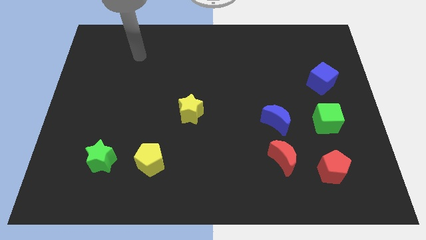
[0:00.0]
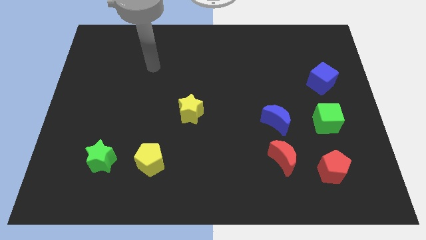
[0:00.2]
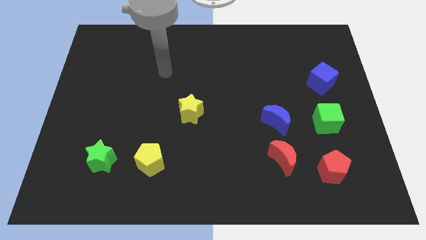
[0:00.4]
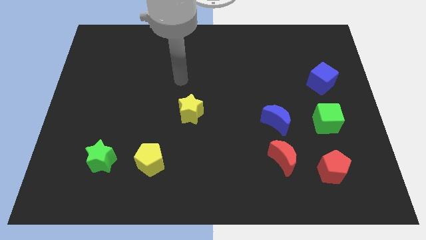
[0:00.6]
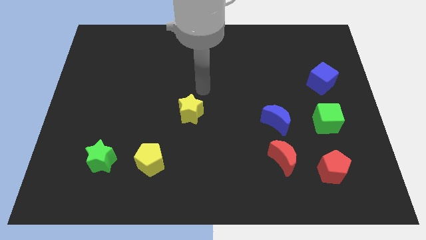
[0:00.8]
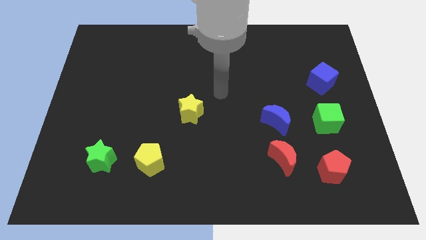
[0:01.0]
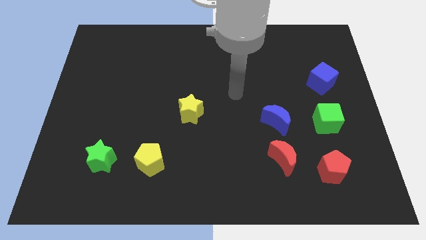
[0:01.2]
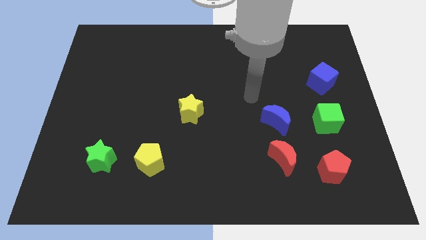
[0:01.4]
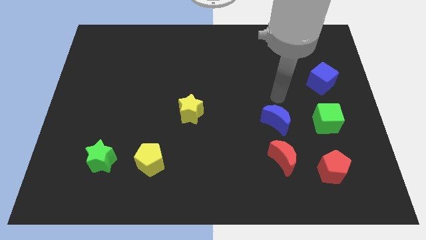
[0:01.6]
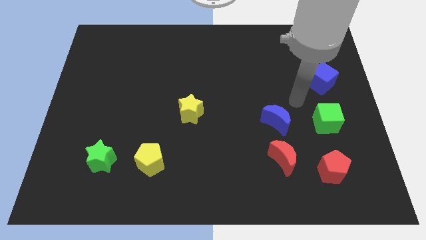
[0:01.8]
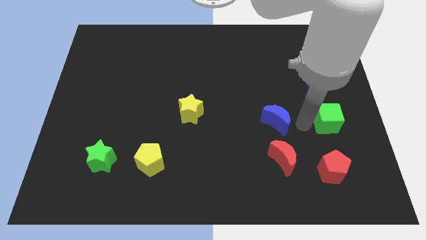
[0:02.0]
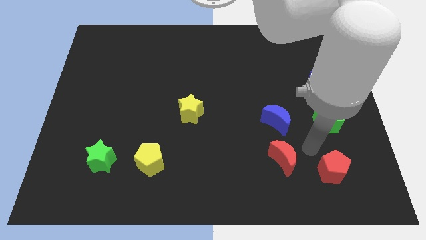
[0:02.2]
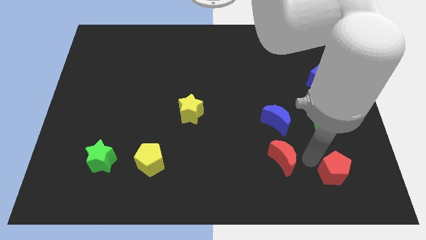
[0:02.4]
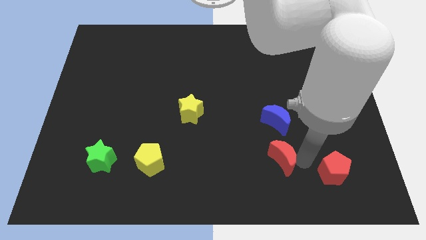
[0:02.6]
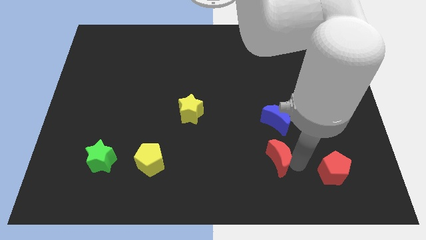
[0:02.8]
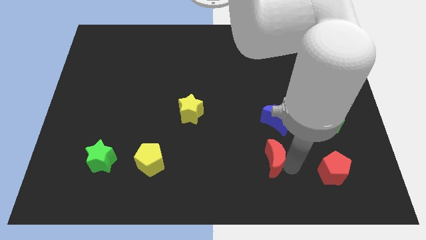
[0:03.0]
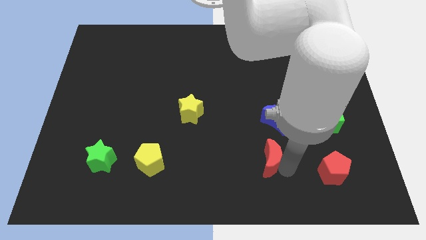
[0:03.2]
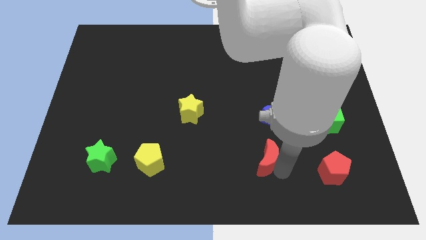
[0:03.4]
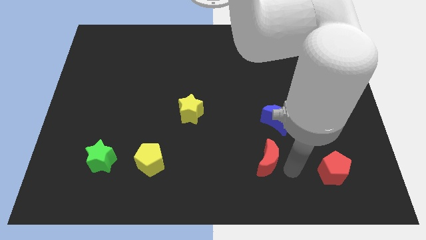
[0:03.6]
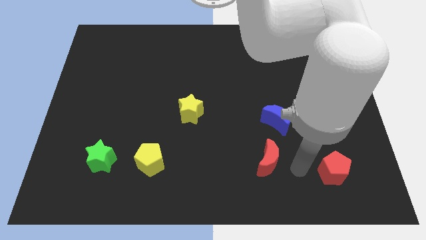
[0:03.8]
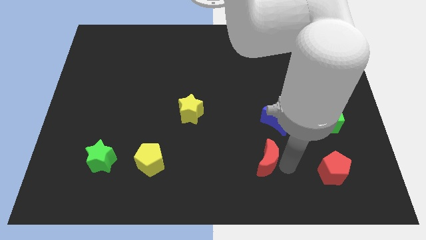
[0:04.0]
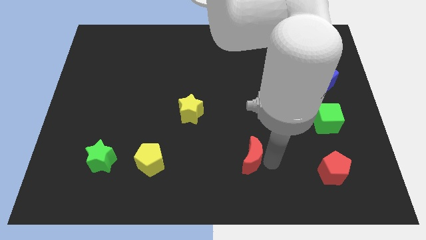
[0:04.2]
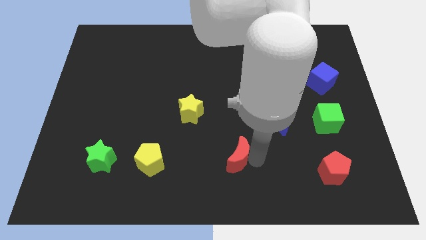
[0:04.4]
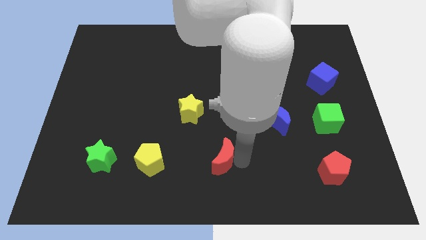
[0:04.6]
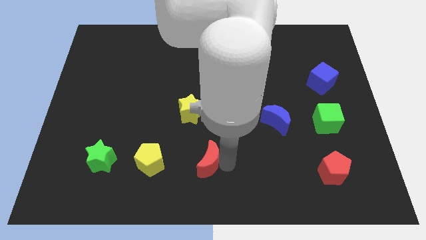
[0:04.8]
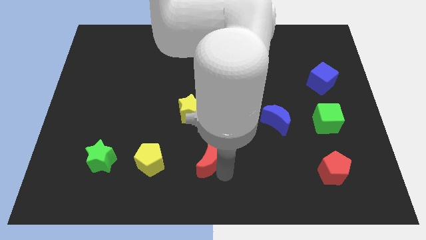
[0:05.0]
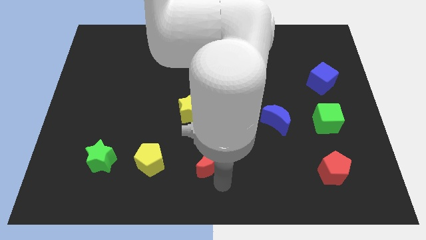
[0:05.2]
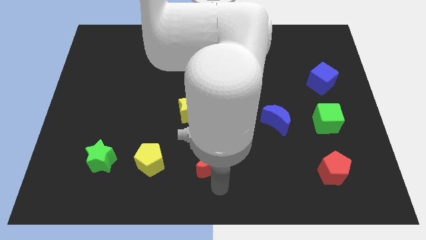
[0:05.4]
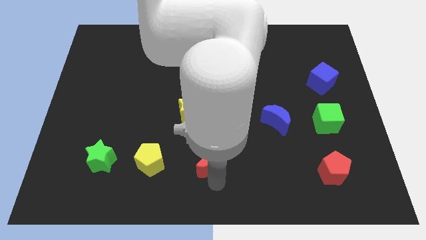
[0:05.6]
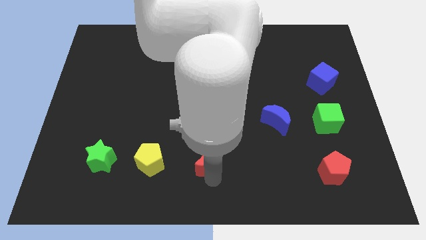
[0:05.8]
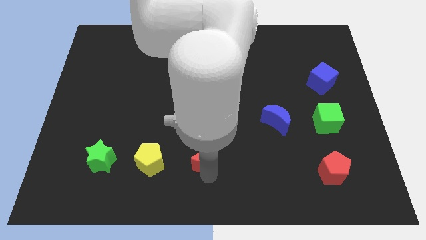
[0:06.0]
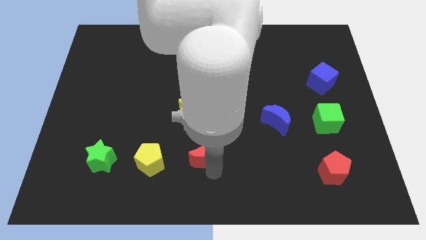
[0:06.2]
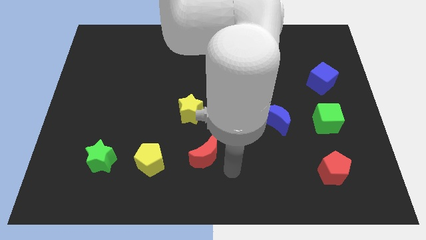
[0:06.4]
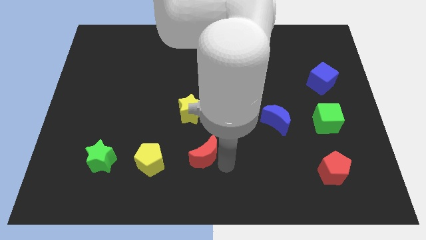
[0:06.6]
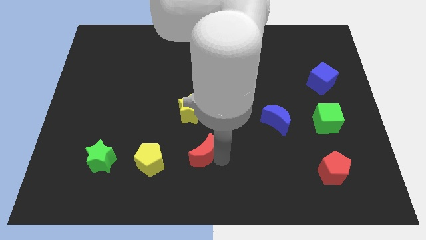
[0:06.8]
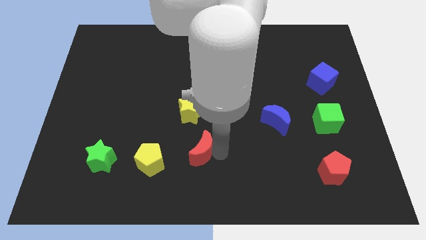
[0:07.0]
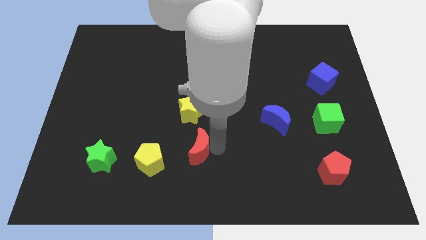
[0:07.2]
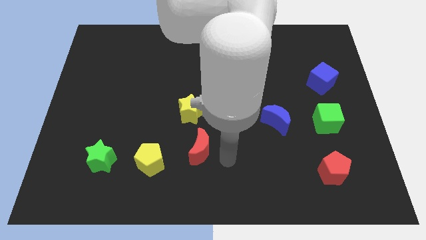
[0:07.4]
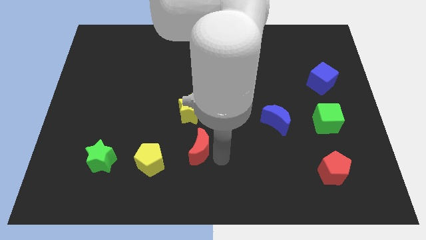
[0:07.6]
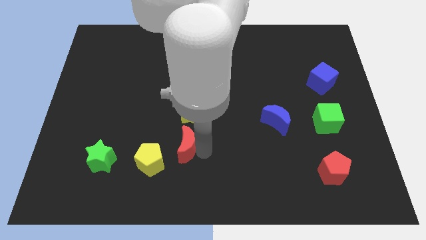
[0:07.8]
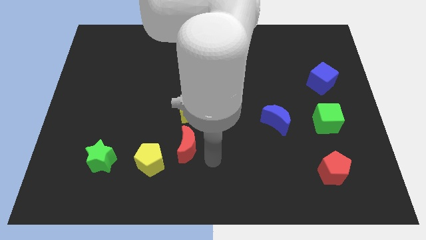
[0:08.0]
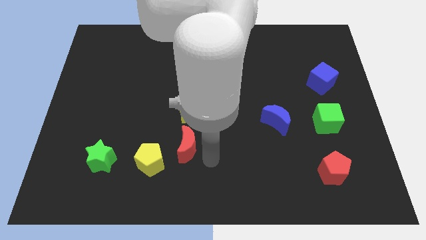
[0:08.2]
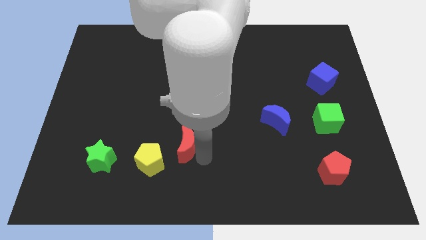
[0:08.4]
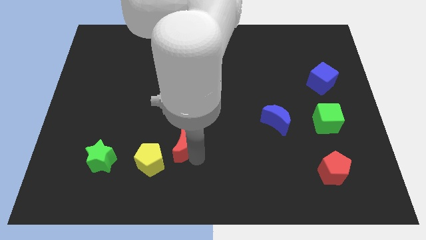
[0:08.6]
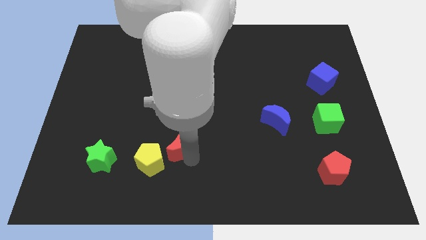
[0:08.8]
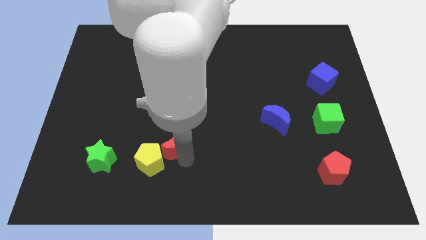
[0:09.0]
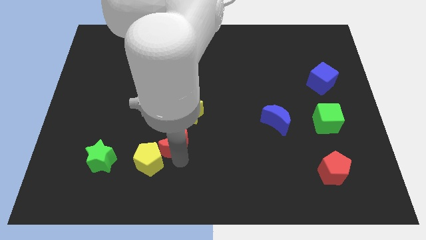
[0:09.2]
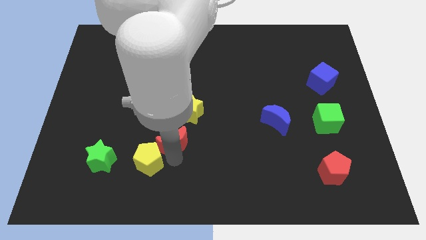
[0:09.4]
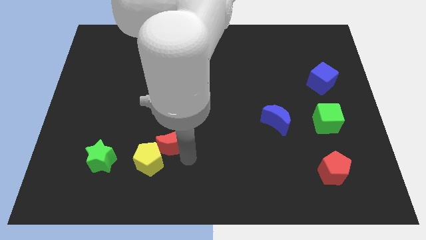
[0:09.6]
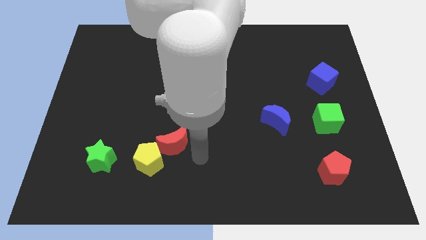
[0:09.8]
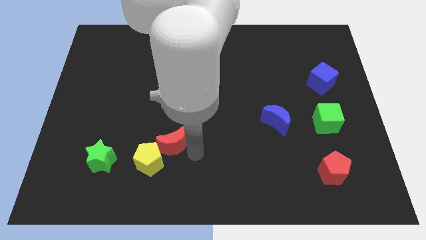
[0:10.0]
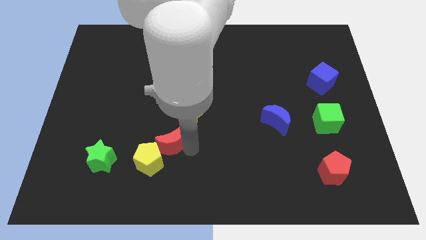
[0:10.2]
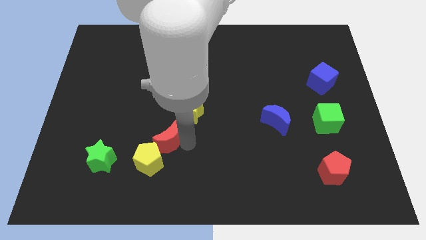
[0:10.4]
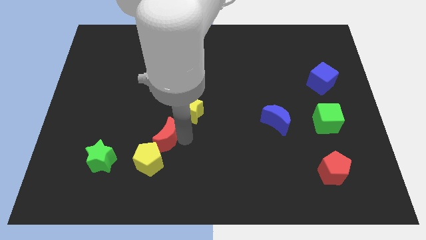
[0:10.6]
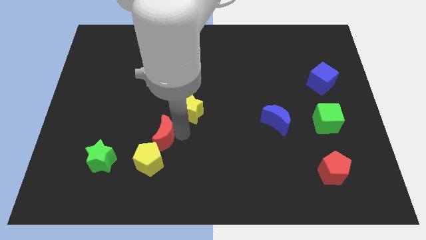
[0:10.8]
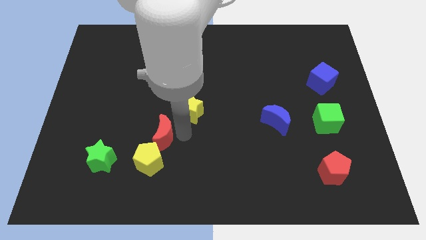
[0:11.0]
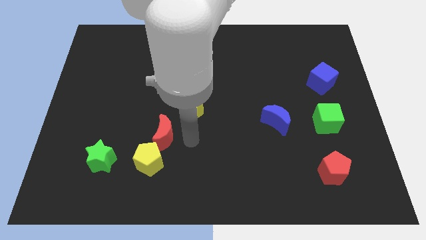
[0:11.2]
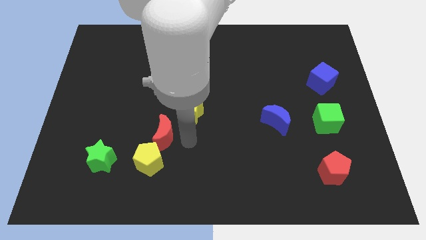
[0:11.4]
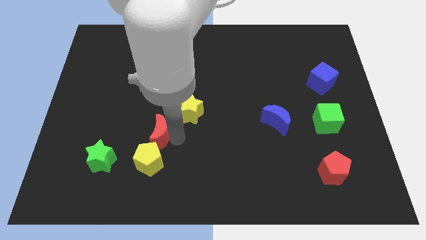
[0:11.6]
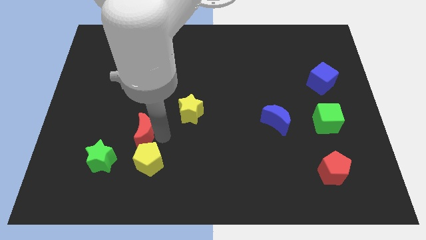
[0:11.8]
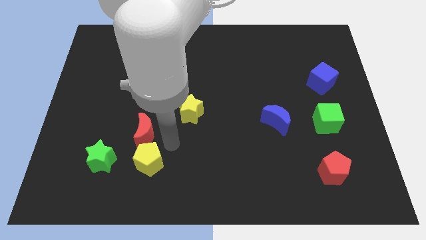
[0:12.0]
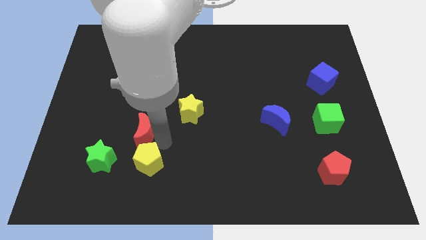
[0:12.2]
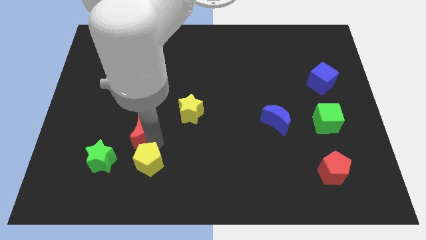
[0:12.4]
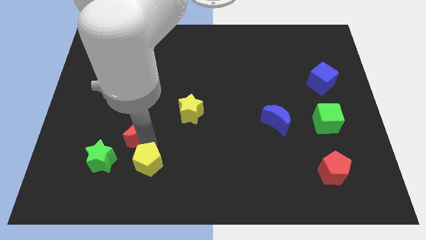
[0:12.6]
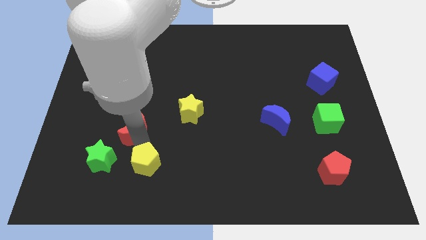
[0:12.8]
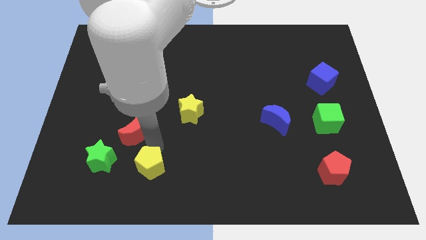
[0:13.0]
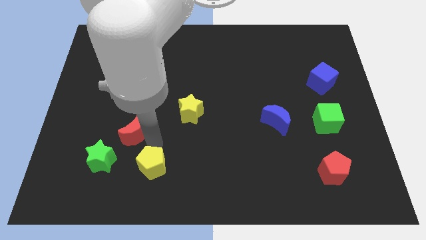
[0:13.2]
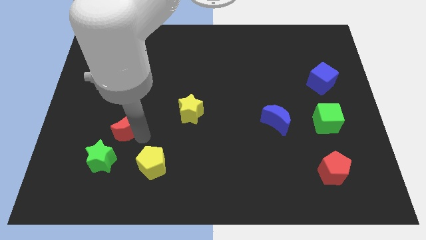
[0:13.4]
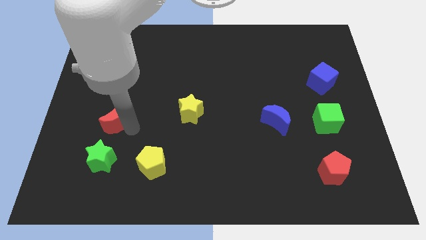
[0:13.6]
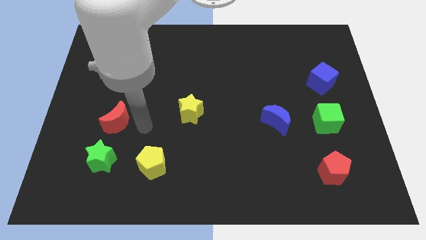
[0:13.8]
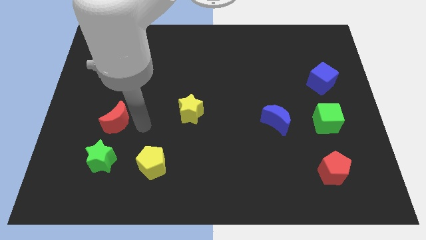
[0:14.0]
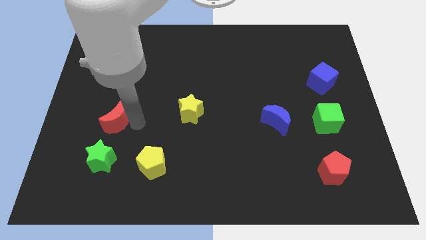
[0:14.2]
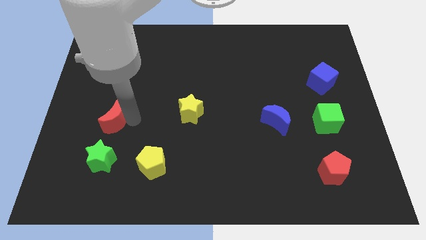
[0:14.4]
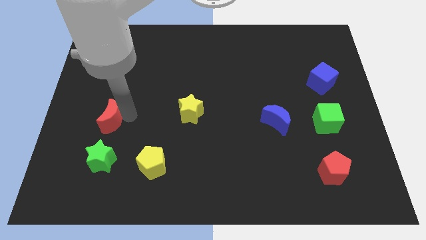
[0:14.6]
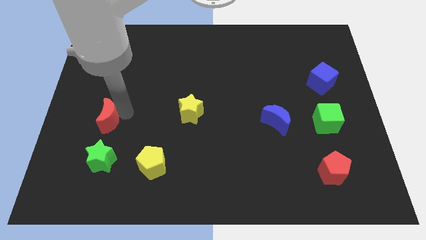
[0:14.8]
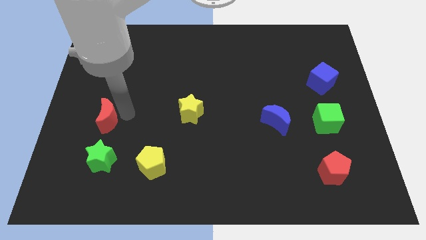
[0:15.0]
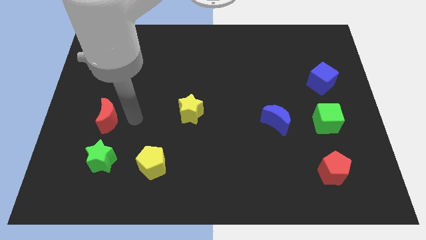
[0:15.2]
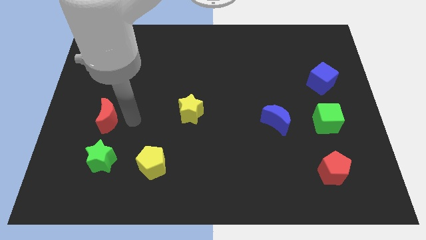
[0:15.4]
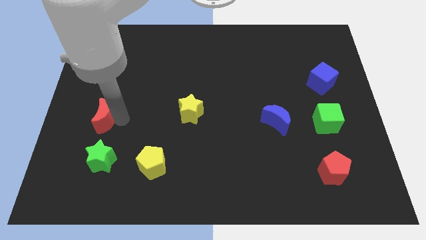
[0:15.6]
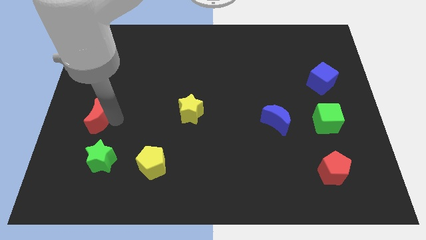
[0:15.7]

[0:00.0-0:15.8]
push the red moon to the left side of the board
